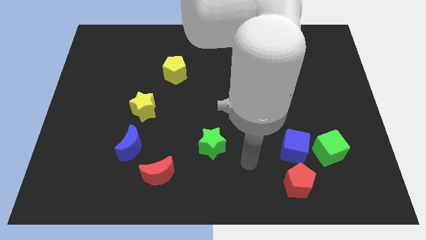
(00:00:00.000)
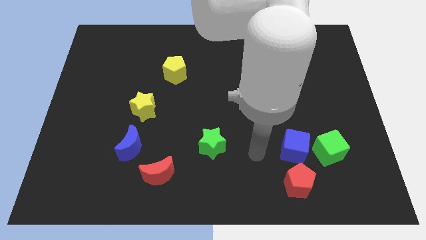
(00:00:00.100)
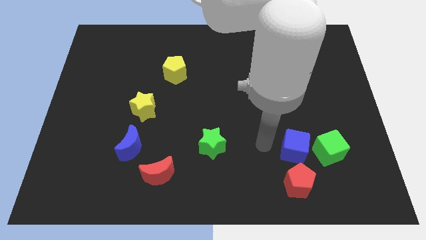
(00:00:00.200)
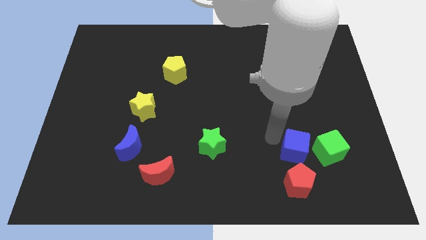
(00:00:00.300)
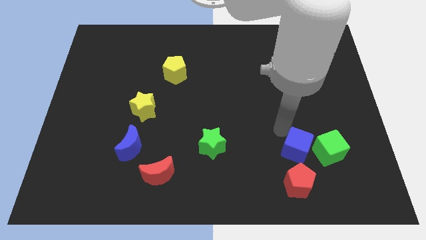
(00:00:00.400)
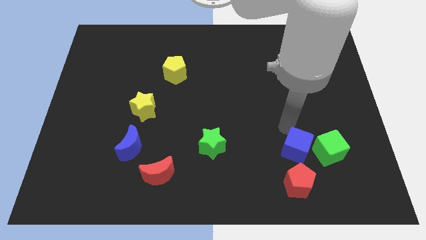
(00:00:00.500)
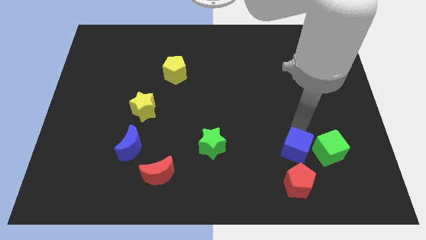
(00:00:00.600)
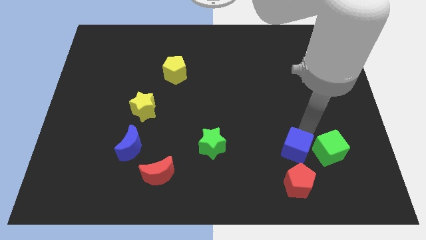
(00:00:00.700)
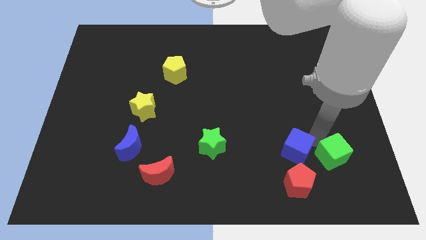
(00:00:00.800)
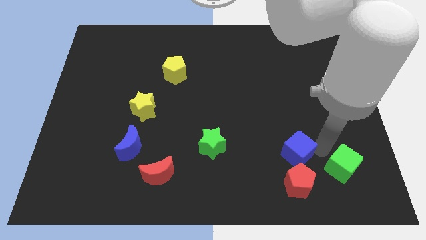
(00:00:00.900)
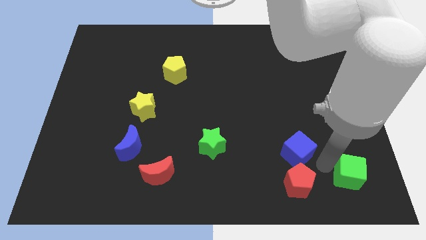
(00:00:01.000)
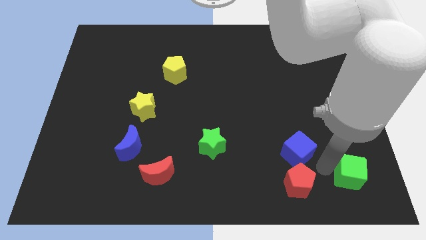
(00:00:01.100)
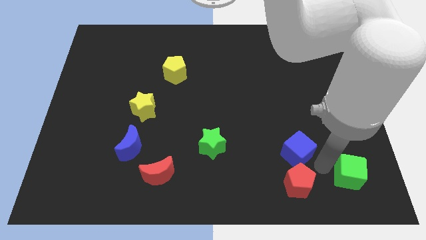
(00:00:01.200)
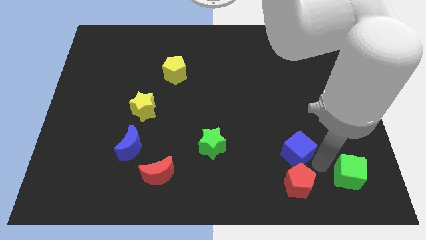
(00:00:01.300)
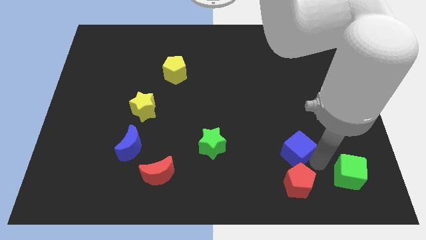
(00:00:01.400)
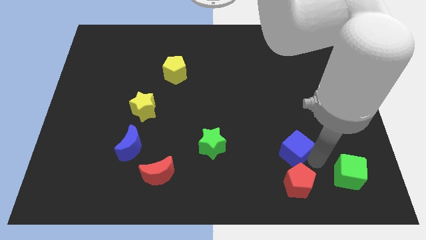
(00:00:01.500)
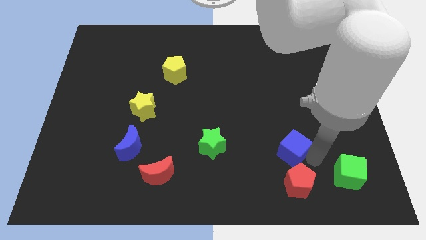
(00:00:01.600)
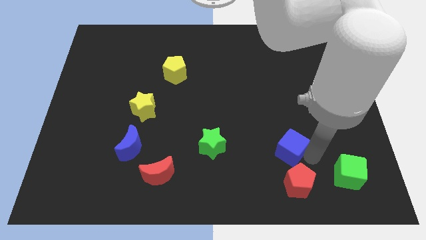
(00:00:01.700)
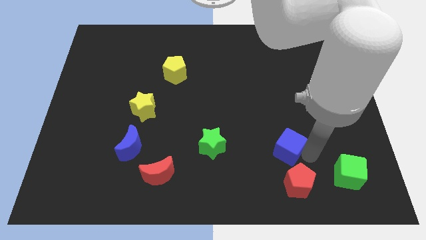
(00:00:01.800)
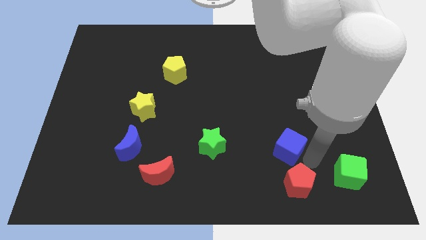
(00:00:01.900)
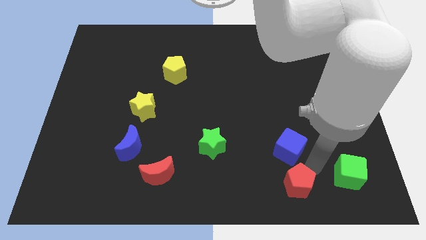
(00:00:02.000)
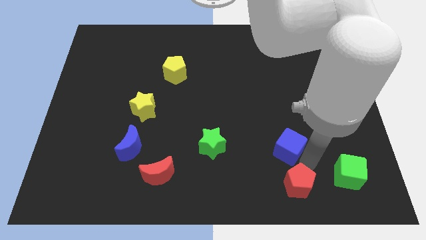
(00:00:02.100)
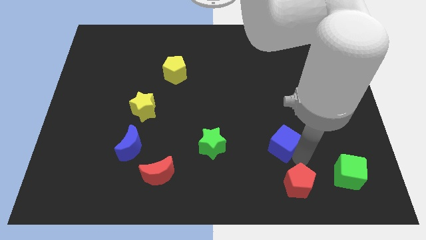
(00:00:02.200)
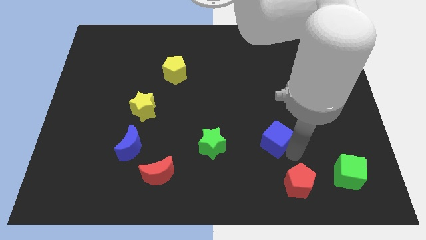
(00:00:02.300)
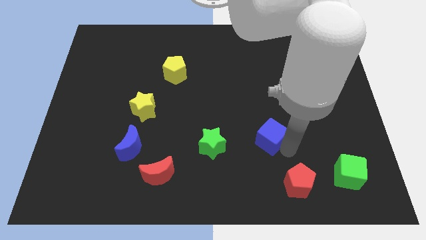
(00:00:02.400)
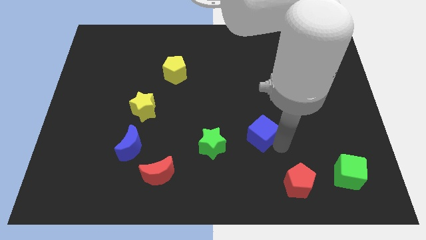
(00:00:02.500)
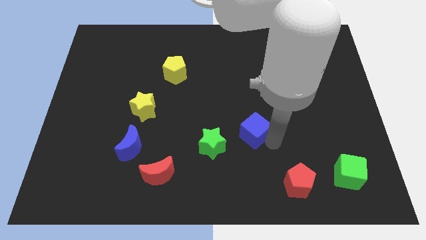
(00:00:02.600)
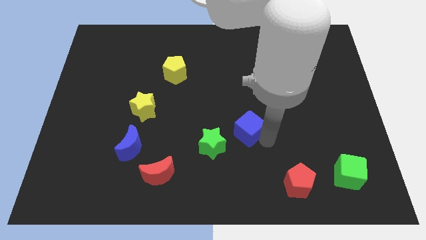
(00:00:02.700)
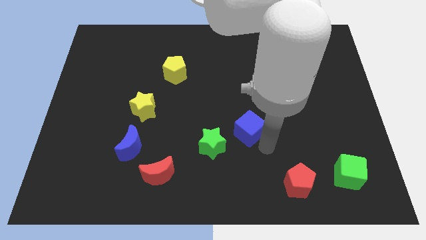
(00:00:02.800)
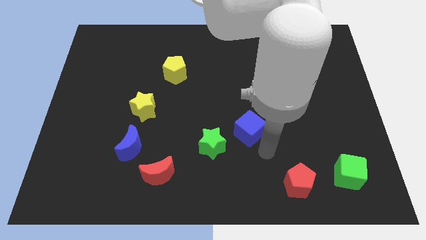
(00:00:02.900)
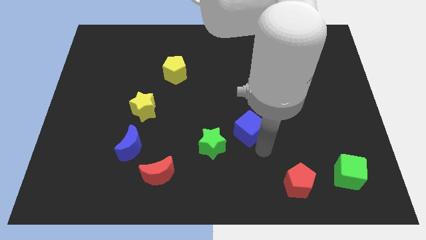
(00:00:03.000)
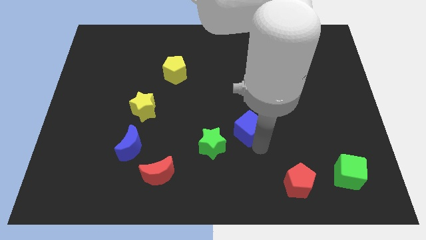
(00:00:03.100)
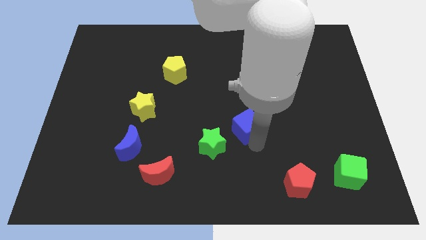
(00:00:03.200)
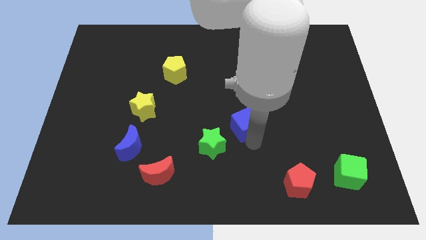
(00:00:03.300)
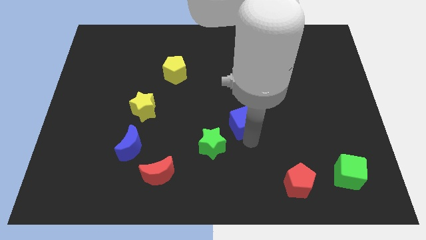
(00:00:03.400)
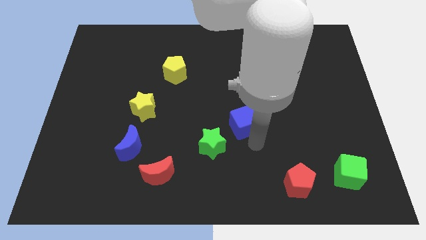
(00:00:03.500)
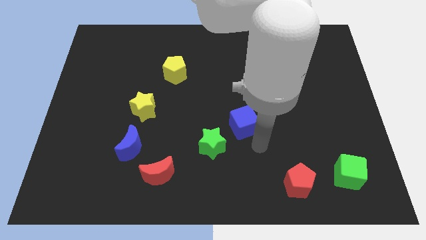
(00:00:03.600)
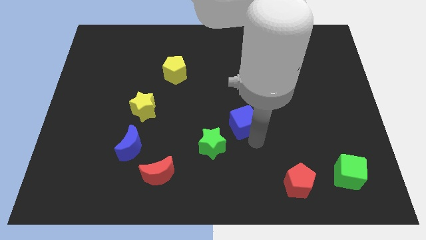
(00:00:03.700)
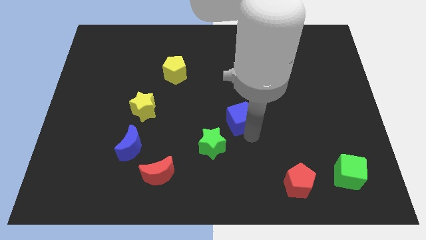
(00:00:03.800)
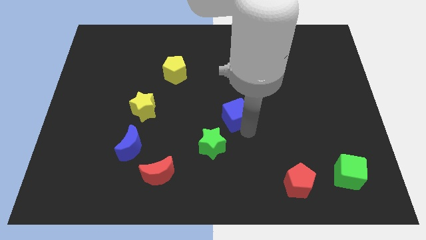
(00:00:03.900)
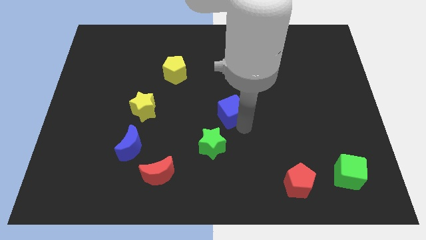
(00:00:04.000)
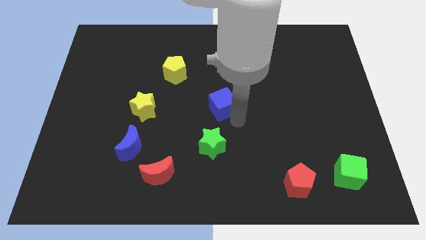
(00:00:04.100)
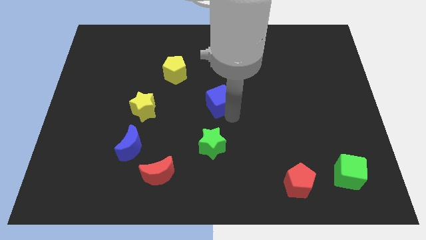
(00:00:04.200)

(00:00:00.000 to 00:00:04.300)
move the blue cube upwards and left diagonally

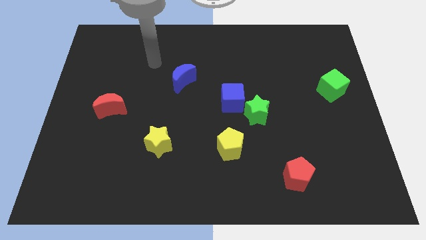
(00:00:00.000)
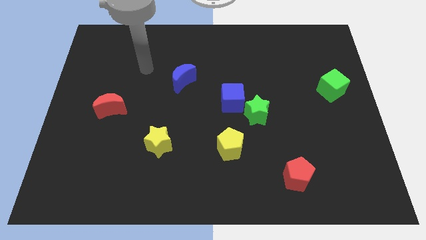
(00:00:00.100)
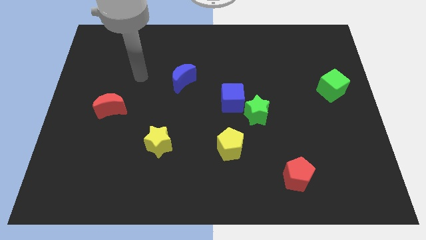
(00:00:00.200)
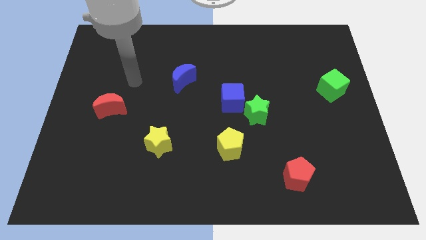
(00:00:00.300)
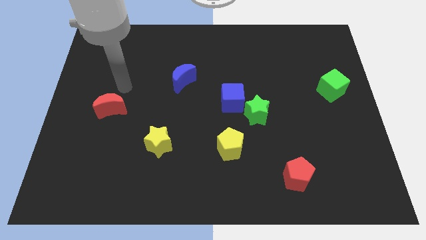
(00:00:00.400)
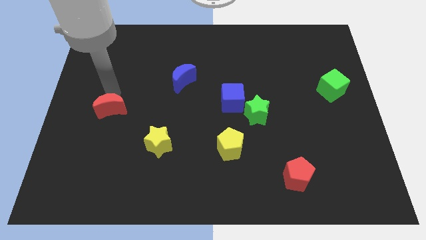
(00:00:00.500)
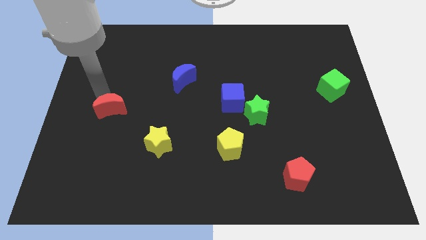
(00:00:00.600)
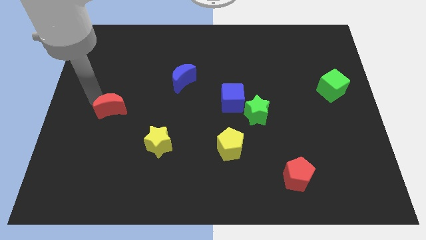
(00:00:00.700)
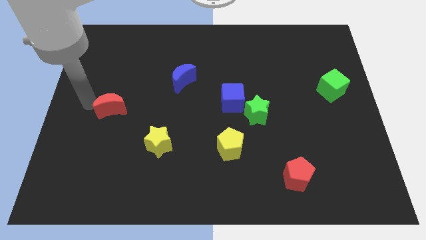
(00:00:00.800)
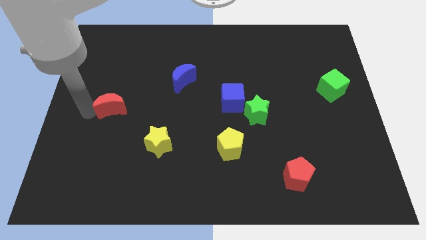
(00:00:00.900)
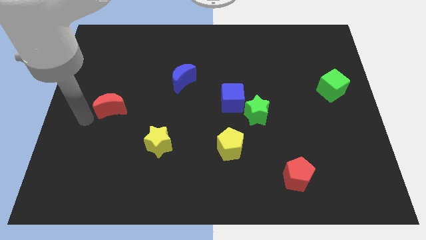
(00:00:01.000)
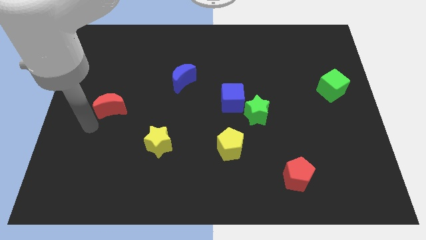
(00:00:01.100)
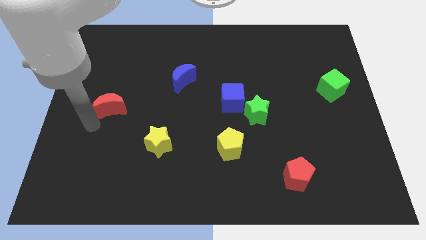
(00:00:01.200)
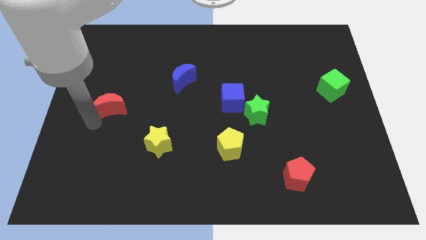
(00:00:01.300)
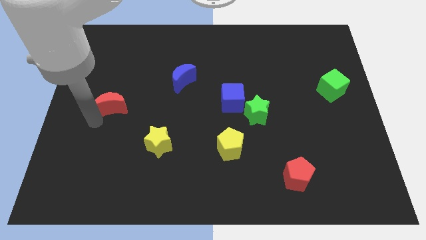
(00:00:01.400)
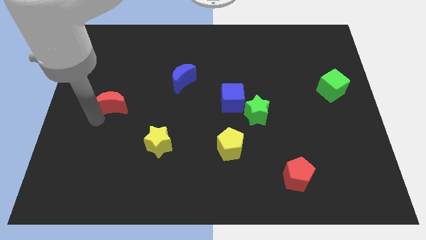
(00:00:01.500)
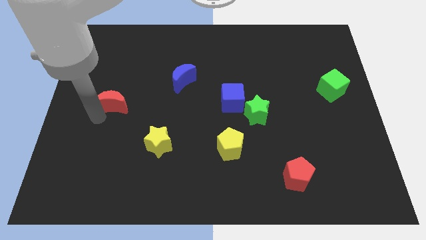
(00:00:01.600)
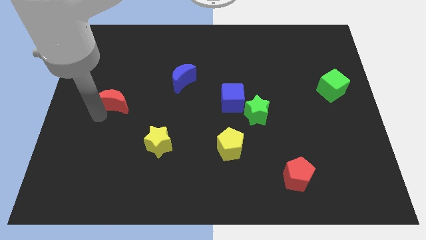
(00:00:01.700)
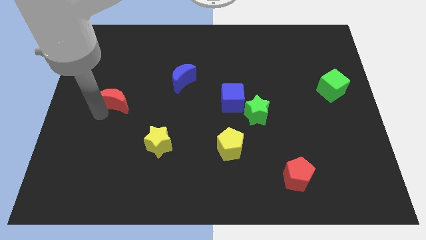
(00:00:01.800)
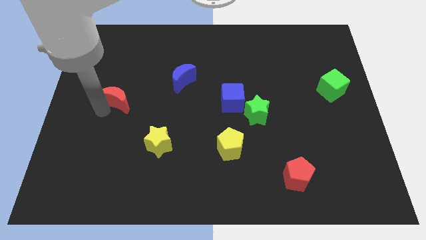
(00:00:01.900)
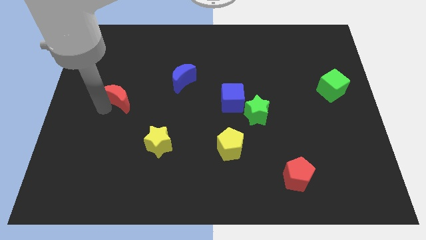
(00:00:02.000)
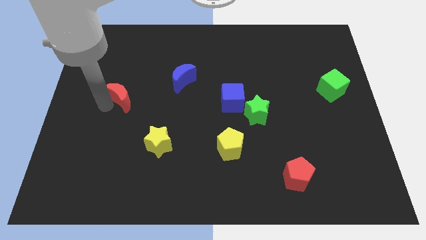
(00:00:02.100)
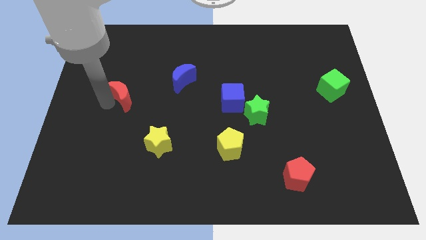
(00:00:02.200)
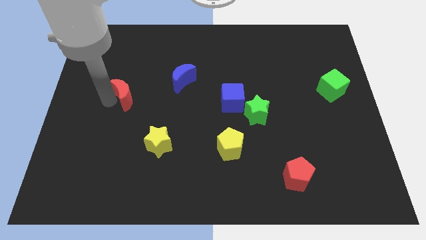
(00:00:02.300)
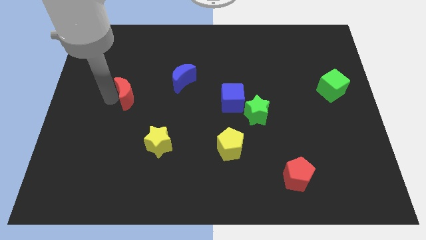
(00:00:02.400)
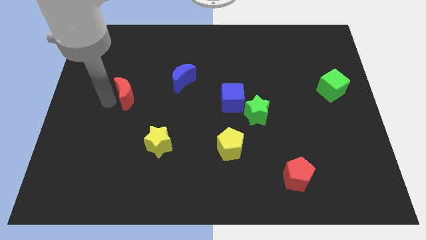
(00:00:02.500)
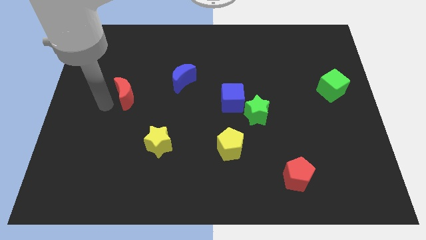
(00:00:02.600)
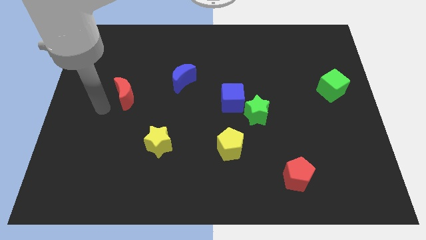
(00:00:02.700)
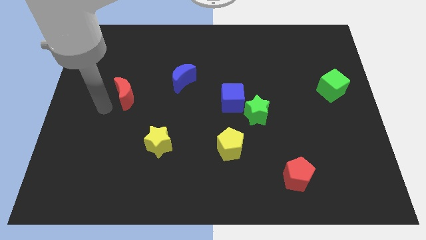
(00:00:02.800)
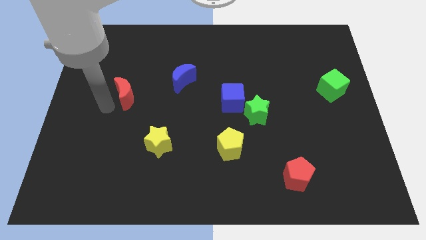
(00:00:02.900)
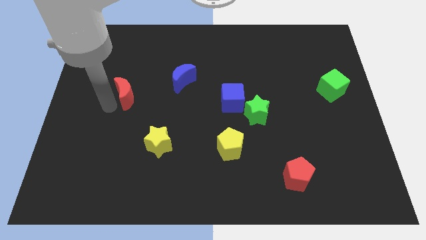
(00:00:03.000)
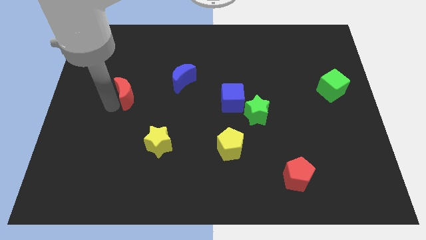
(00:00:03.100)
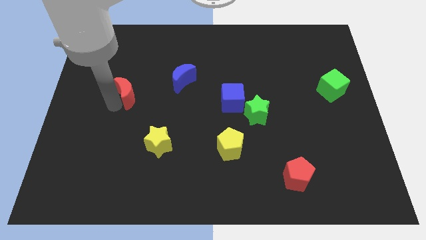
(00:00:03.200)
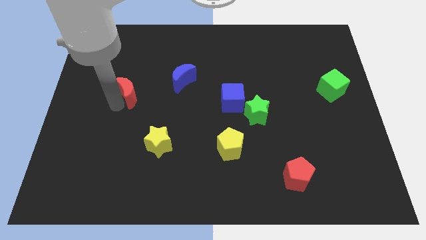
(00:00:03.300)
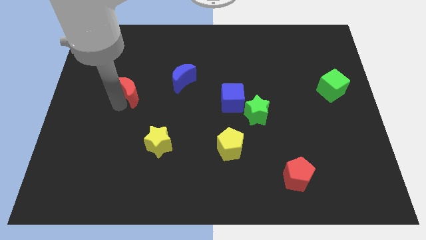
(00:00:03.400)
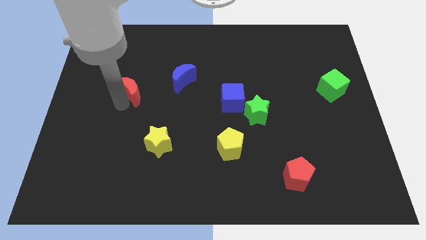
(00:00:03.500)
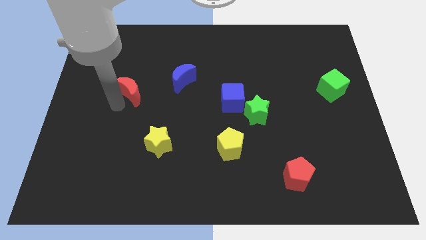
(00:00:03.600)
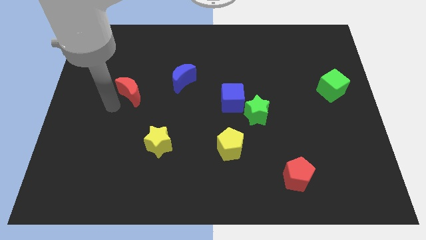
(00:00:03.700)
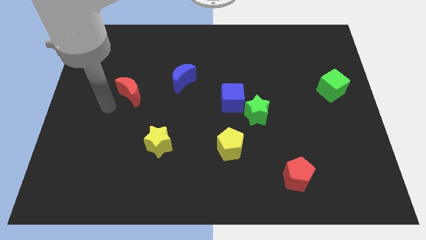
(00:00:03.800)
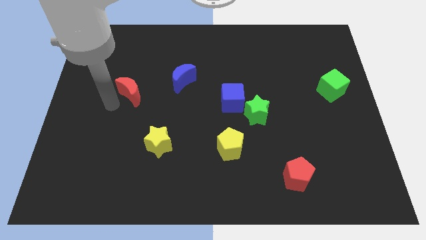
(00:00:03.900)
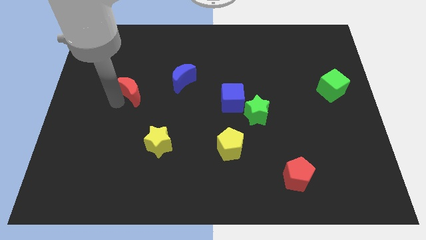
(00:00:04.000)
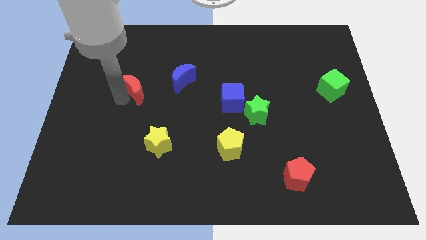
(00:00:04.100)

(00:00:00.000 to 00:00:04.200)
slightly slide the red moon up and then right
